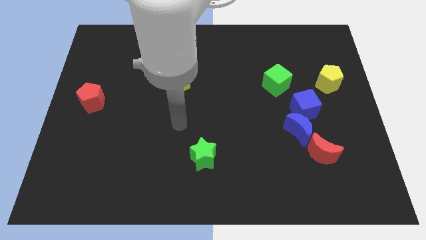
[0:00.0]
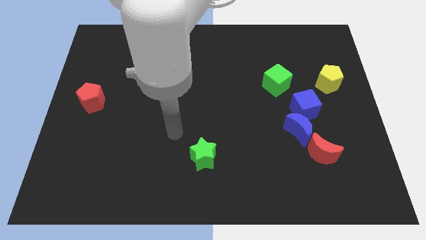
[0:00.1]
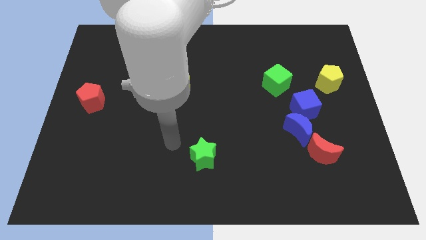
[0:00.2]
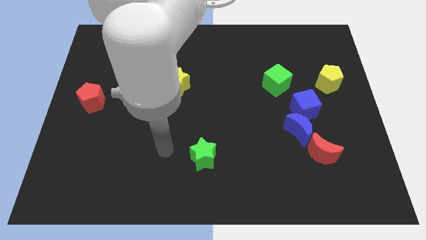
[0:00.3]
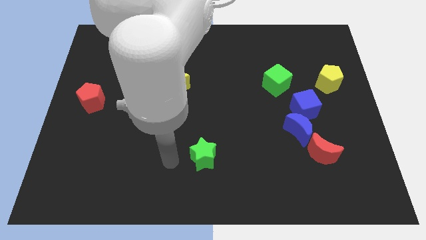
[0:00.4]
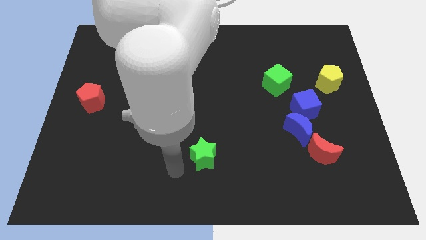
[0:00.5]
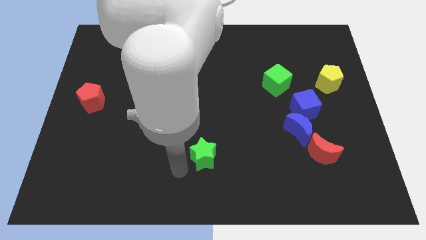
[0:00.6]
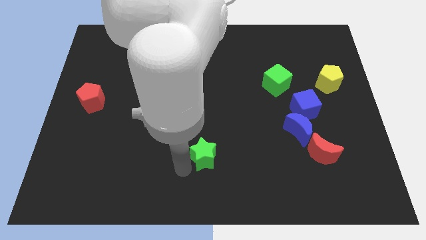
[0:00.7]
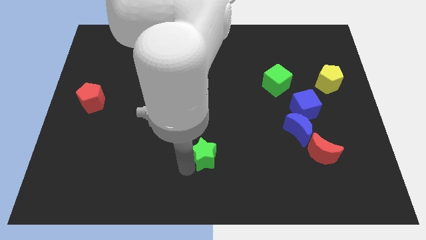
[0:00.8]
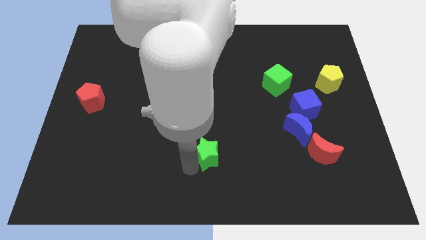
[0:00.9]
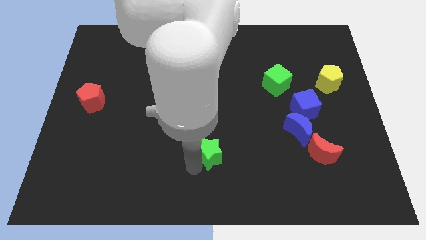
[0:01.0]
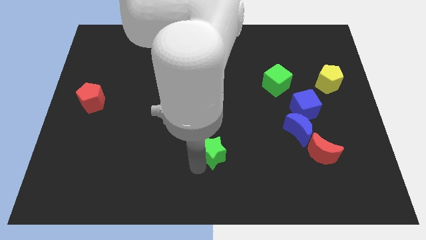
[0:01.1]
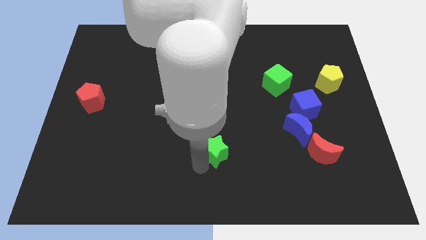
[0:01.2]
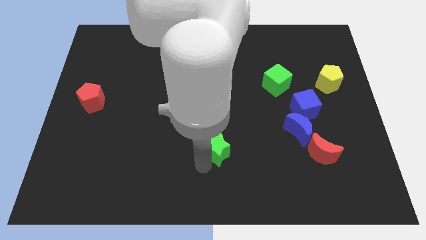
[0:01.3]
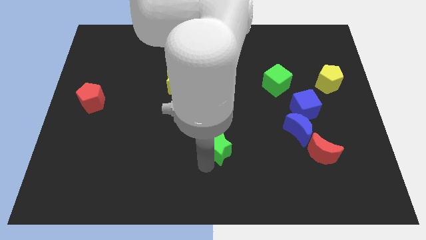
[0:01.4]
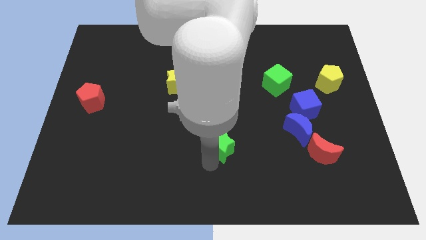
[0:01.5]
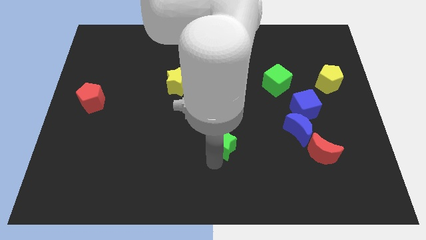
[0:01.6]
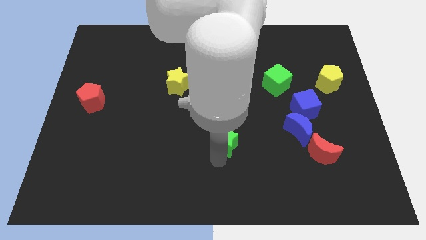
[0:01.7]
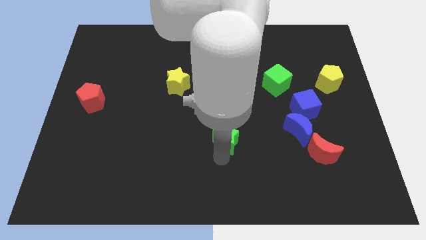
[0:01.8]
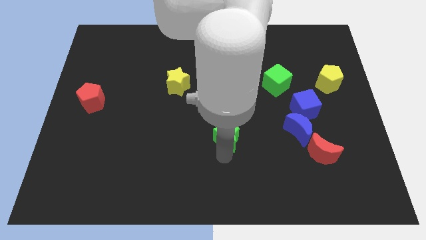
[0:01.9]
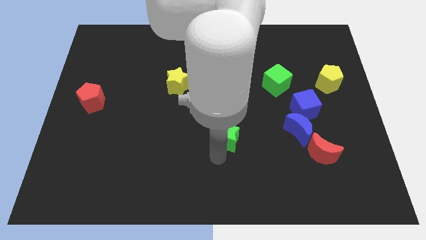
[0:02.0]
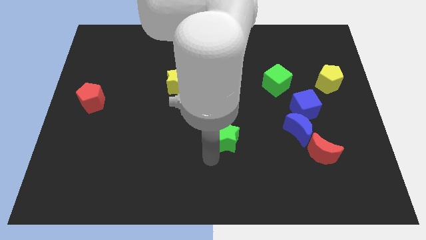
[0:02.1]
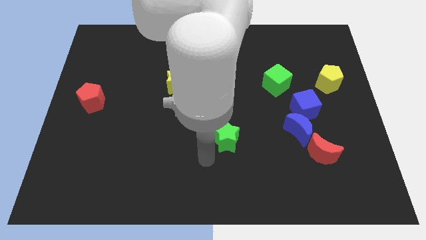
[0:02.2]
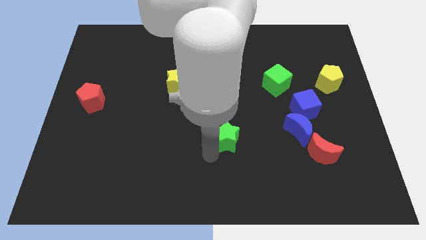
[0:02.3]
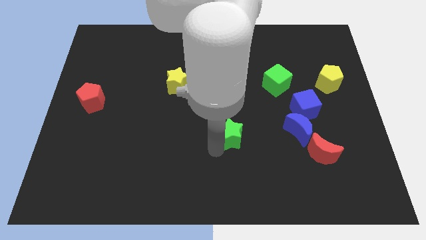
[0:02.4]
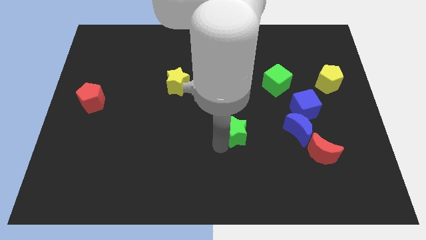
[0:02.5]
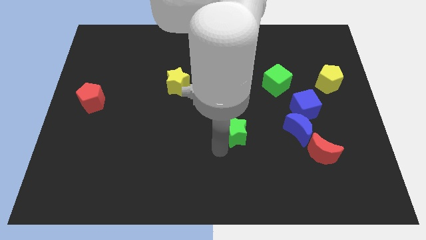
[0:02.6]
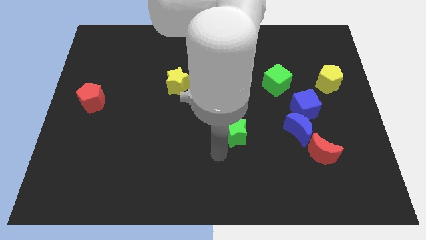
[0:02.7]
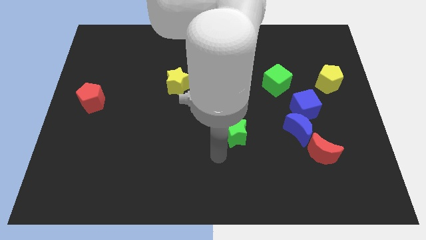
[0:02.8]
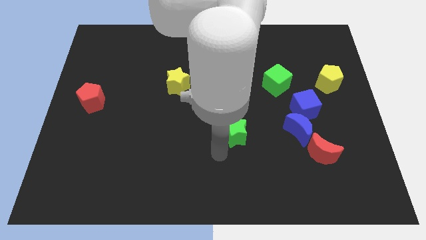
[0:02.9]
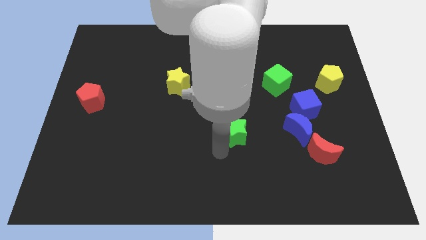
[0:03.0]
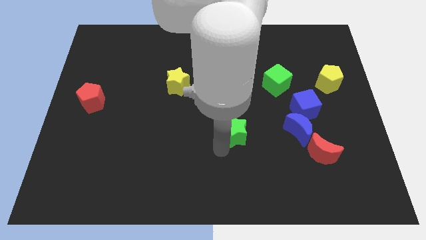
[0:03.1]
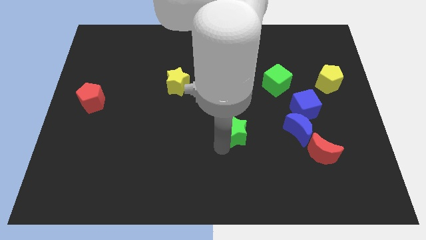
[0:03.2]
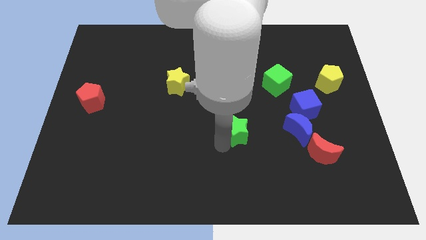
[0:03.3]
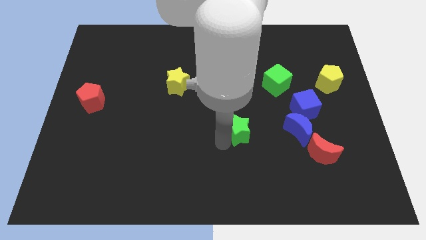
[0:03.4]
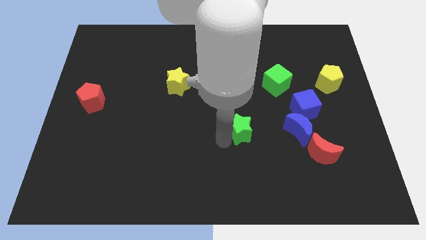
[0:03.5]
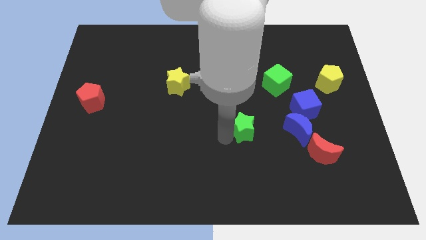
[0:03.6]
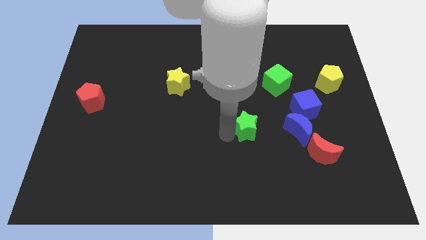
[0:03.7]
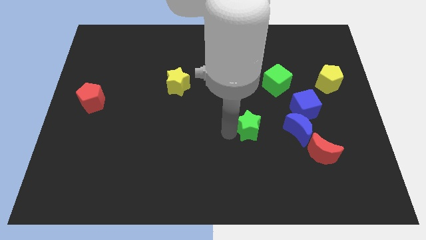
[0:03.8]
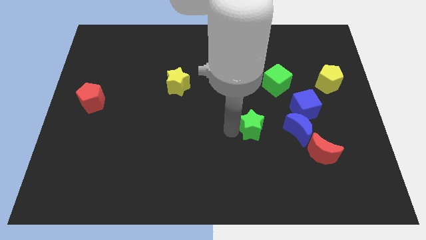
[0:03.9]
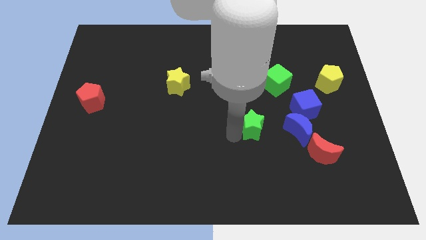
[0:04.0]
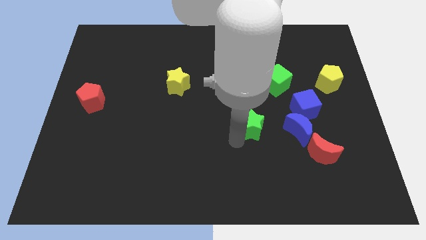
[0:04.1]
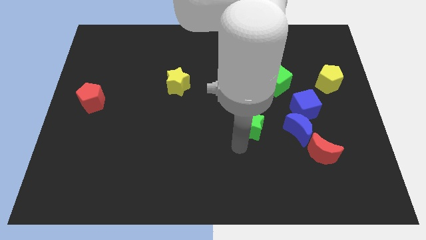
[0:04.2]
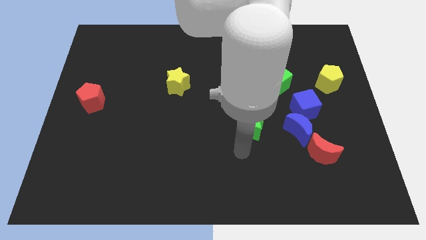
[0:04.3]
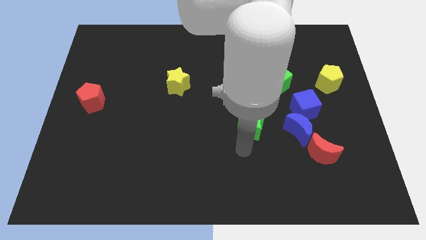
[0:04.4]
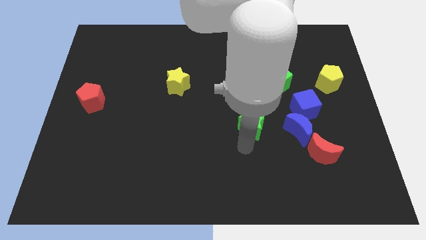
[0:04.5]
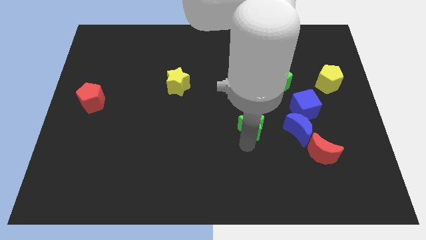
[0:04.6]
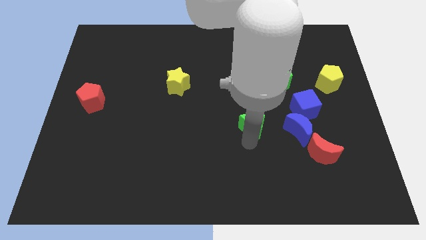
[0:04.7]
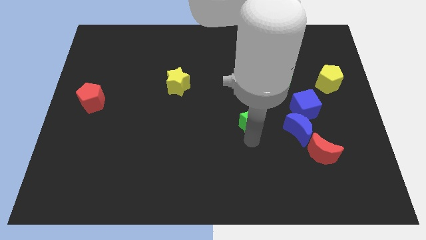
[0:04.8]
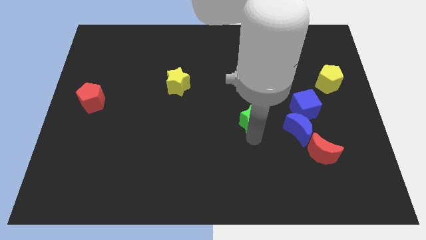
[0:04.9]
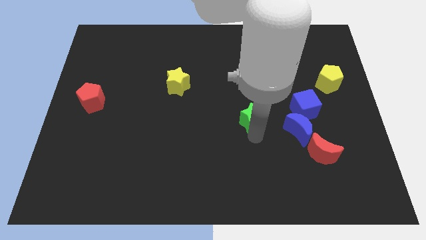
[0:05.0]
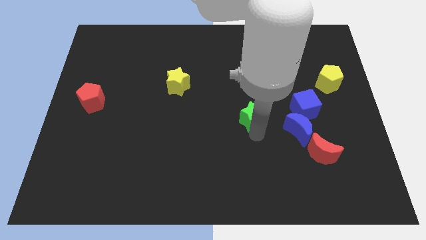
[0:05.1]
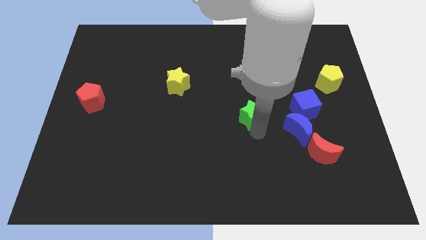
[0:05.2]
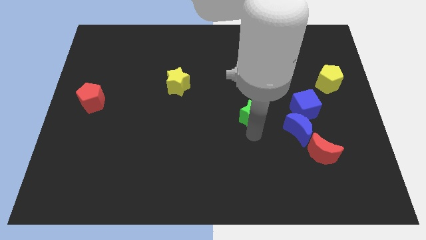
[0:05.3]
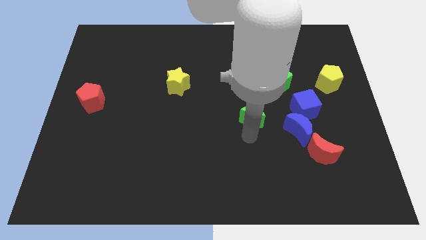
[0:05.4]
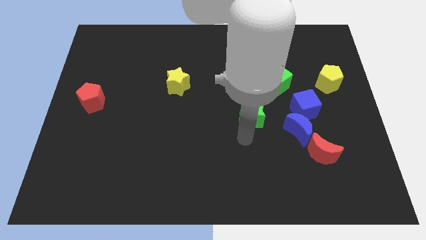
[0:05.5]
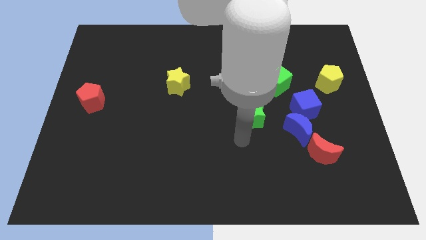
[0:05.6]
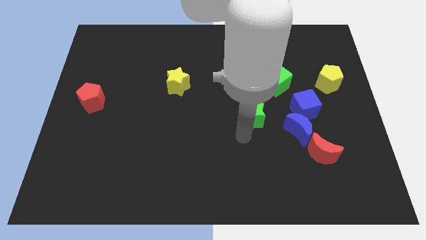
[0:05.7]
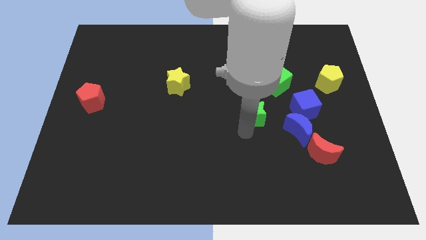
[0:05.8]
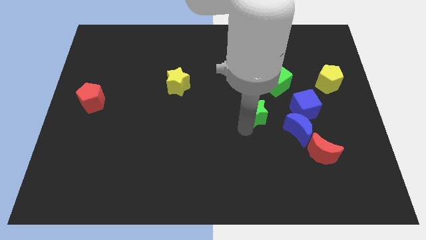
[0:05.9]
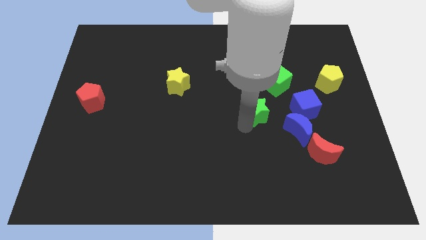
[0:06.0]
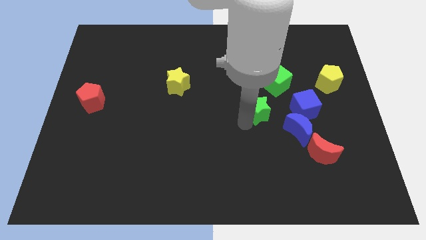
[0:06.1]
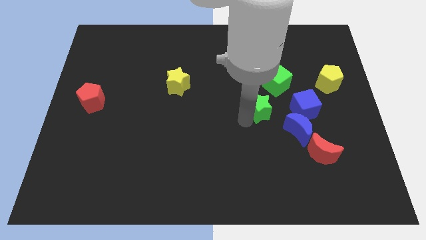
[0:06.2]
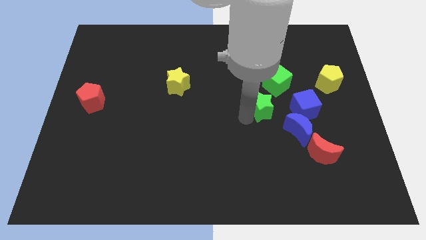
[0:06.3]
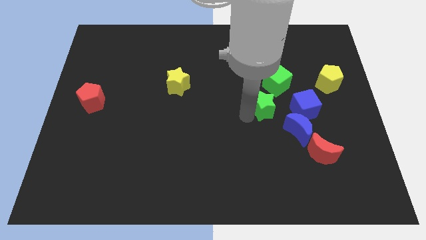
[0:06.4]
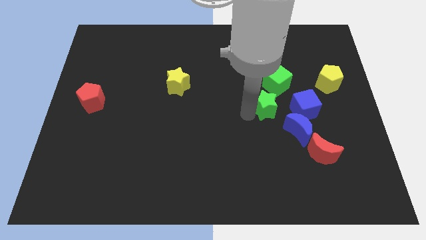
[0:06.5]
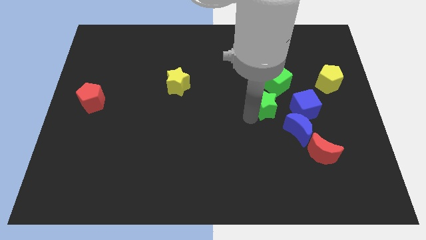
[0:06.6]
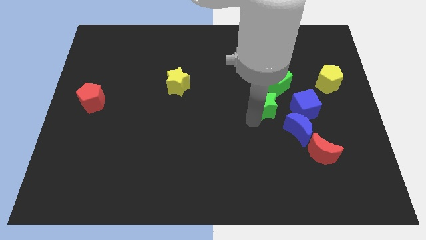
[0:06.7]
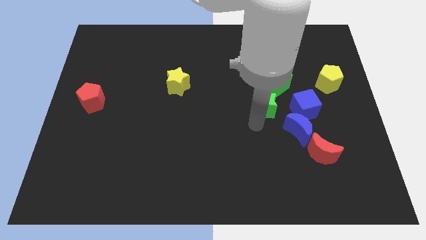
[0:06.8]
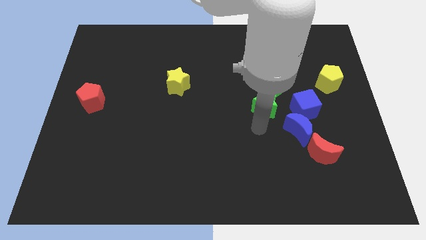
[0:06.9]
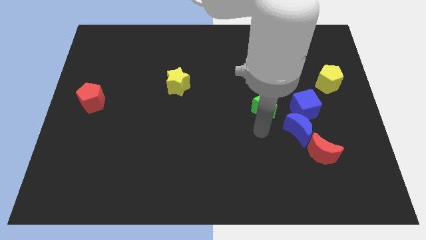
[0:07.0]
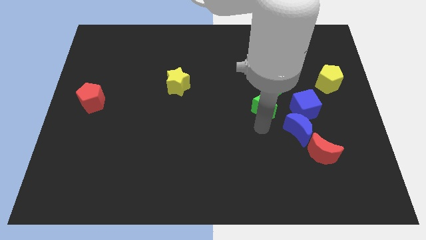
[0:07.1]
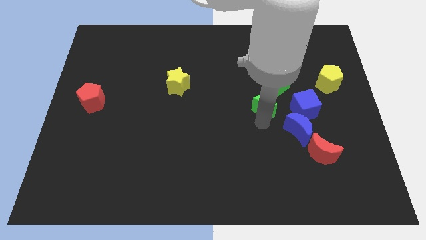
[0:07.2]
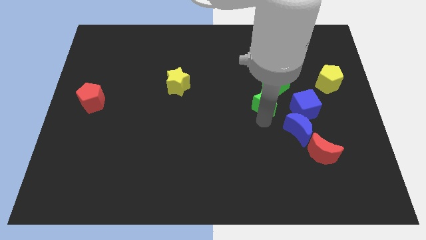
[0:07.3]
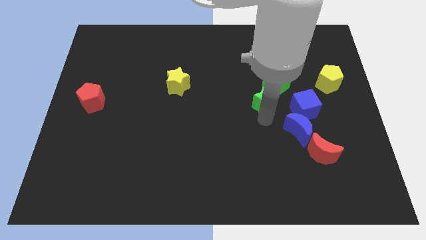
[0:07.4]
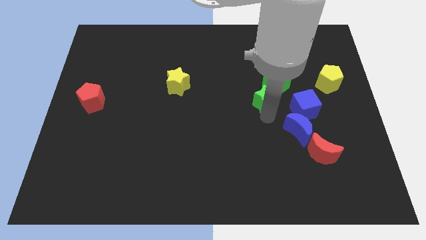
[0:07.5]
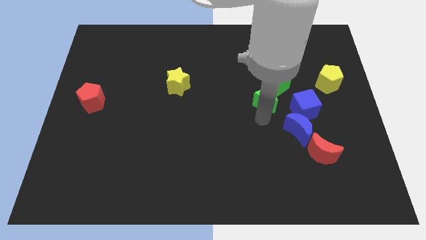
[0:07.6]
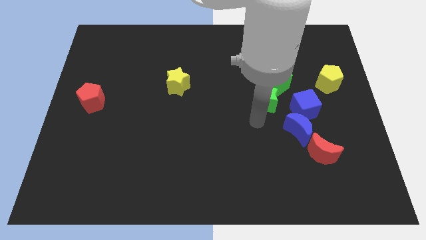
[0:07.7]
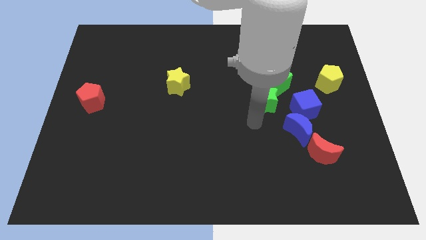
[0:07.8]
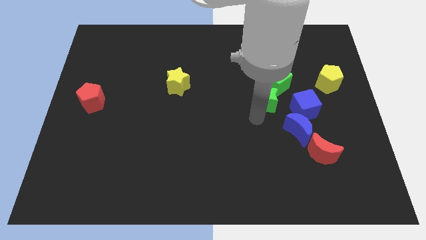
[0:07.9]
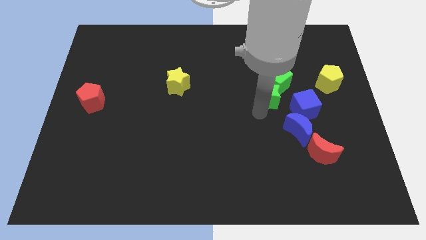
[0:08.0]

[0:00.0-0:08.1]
slide the green star next to the green cube
